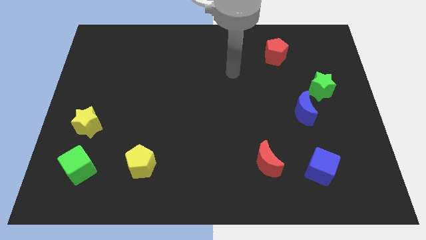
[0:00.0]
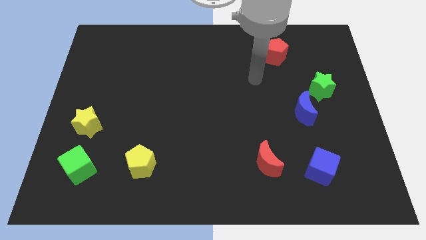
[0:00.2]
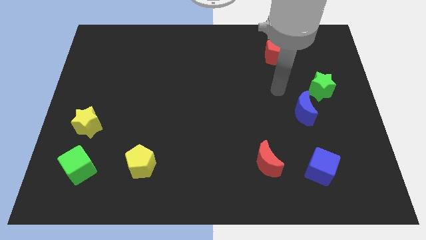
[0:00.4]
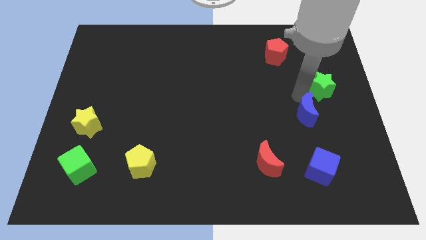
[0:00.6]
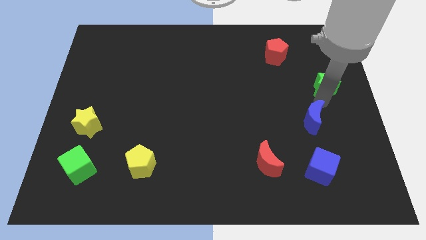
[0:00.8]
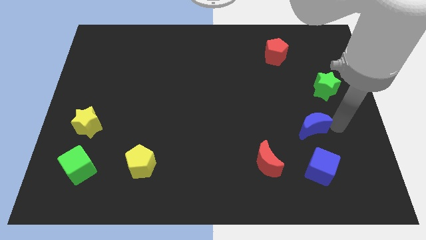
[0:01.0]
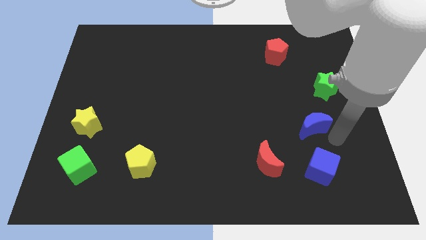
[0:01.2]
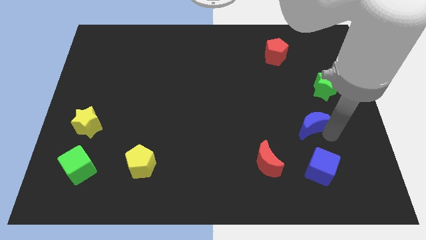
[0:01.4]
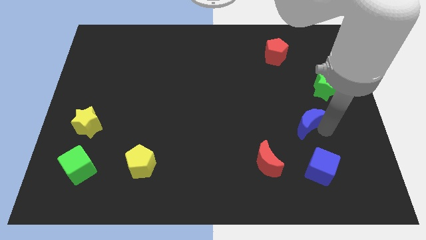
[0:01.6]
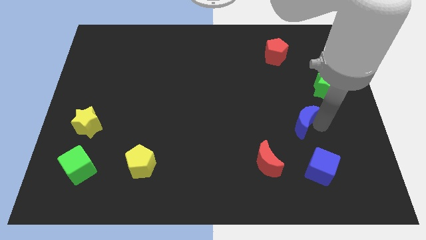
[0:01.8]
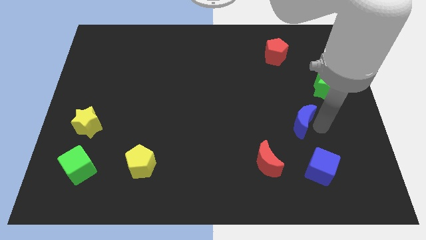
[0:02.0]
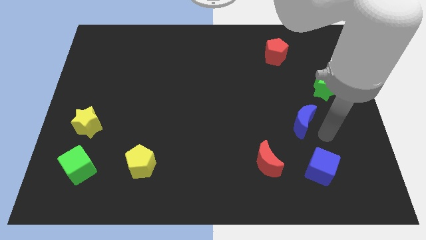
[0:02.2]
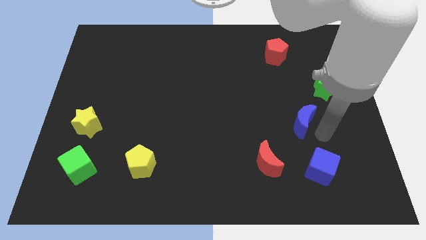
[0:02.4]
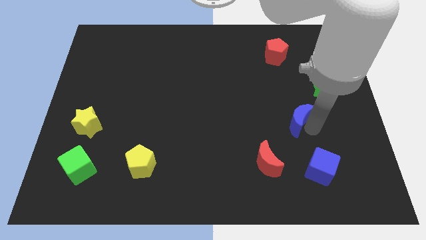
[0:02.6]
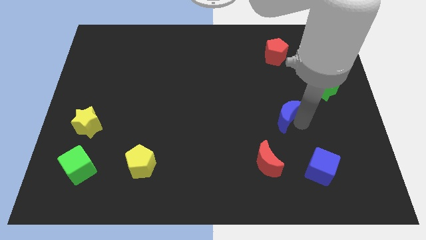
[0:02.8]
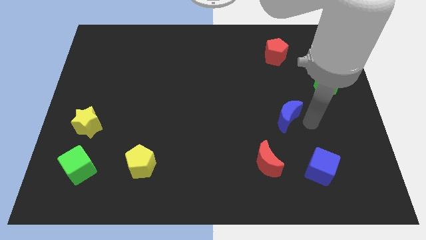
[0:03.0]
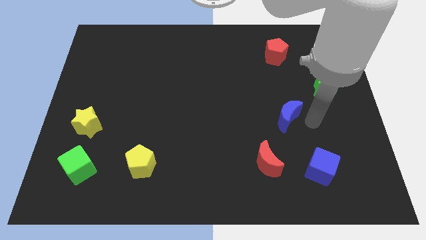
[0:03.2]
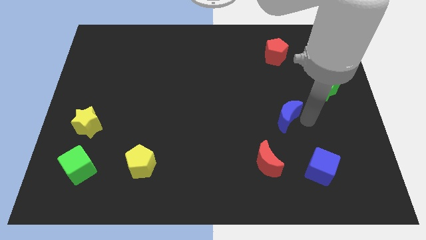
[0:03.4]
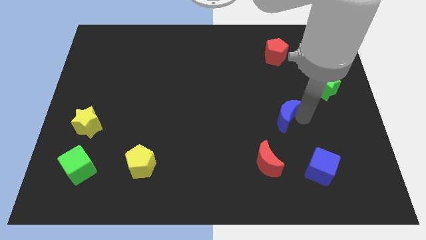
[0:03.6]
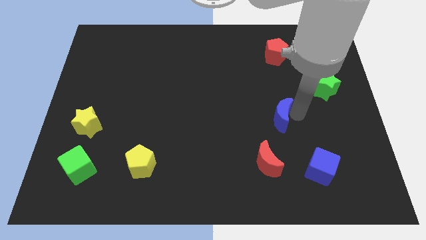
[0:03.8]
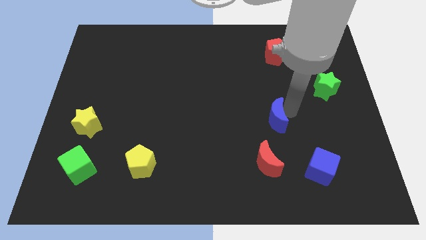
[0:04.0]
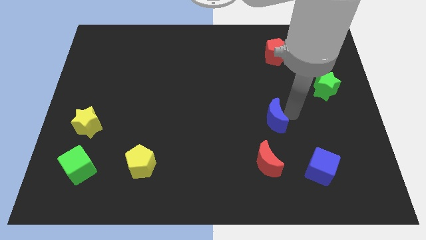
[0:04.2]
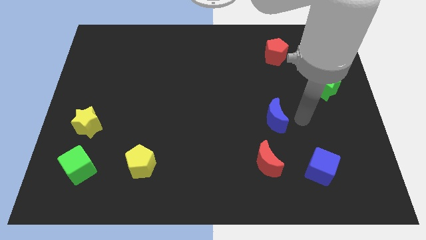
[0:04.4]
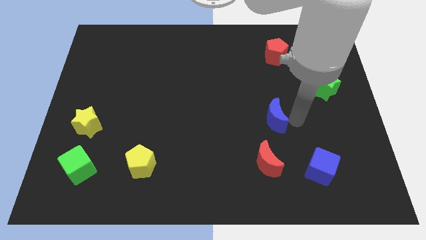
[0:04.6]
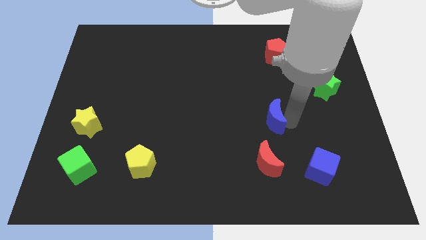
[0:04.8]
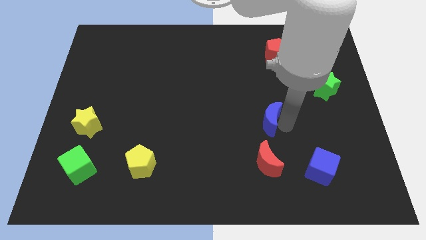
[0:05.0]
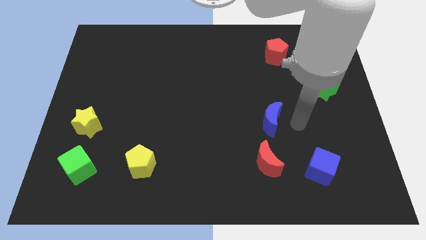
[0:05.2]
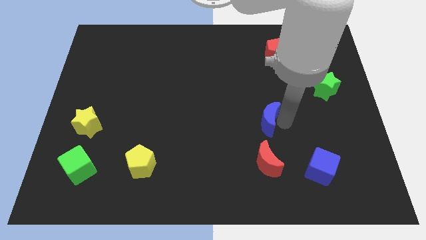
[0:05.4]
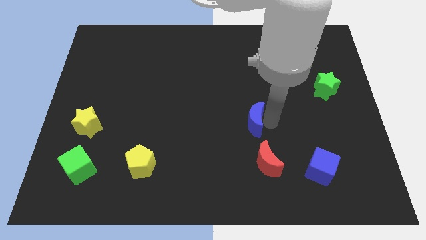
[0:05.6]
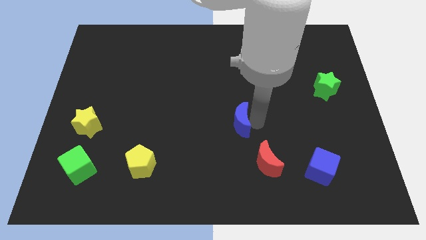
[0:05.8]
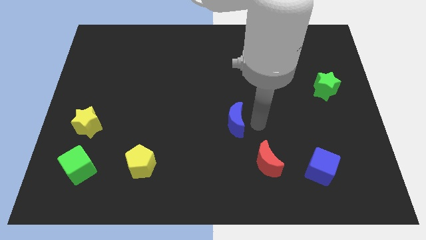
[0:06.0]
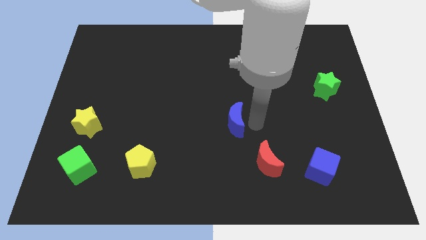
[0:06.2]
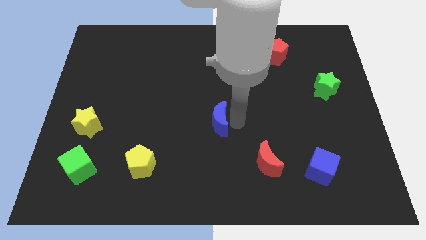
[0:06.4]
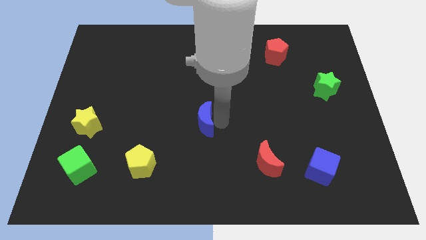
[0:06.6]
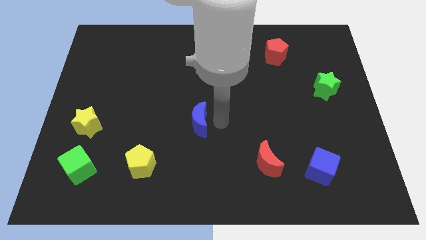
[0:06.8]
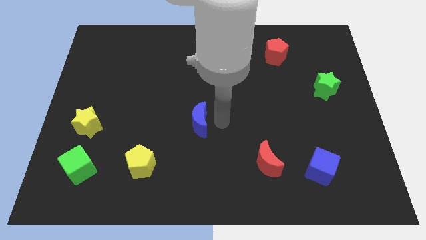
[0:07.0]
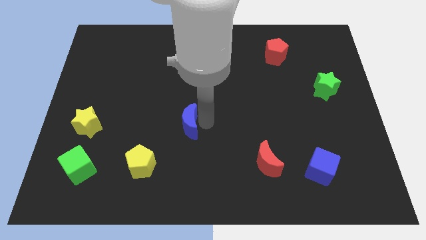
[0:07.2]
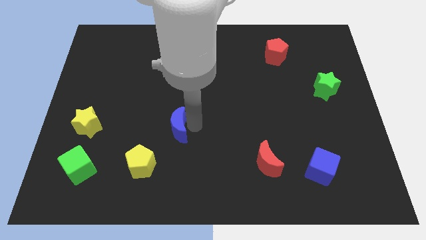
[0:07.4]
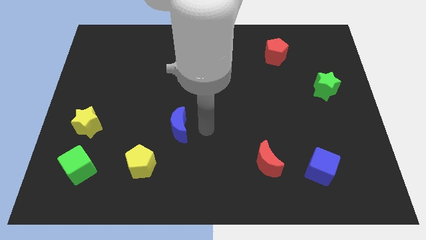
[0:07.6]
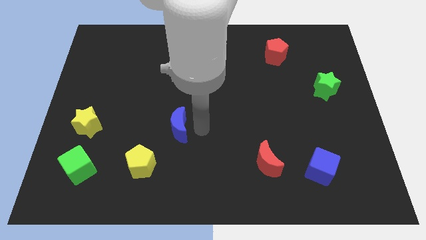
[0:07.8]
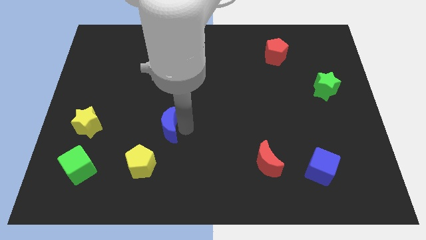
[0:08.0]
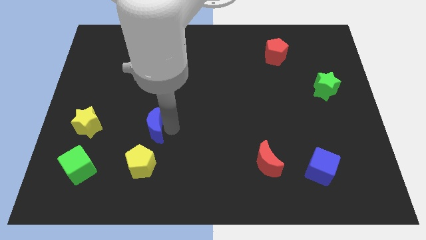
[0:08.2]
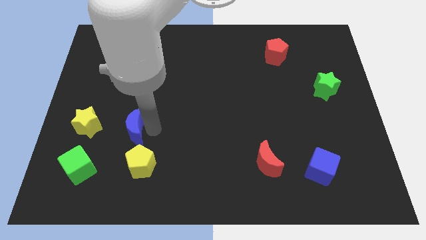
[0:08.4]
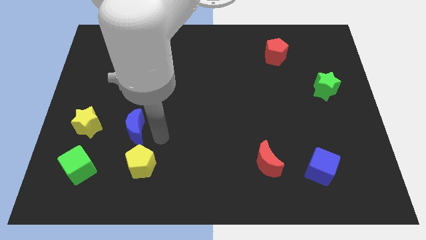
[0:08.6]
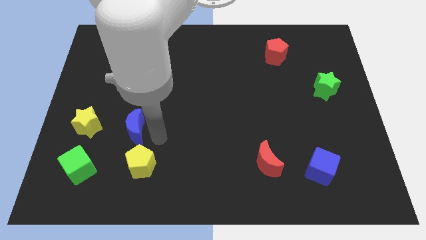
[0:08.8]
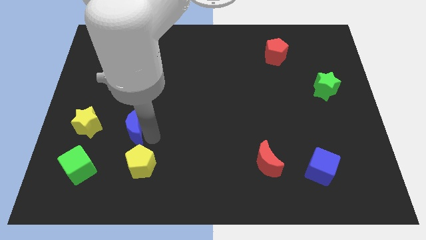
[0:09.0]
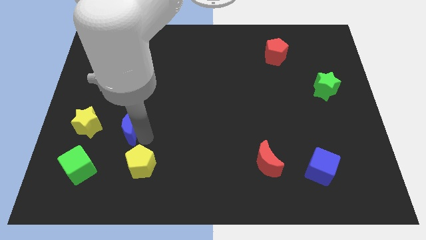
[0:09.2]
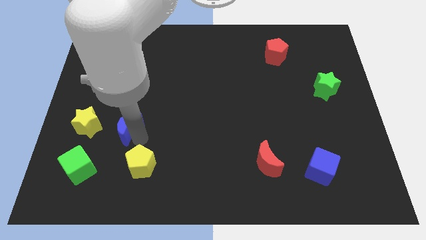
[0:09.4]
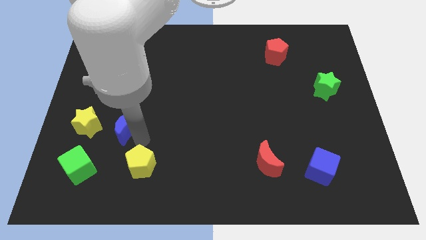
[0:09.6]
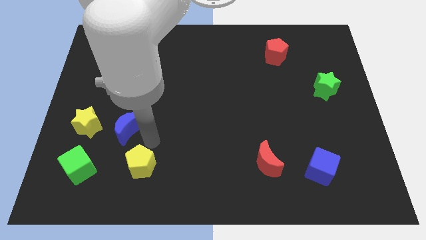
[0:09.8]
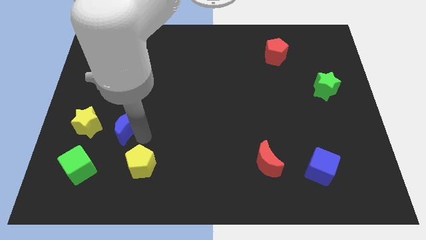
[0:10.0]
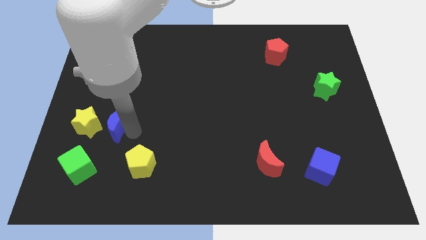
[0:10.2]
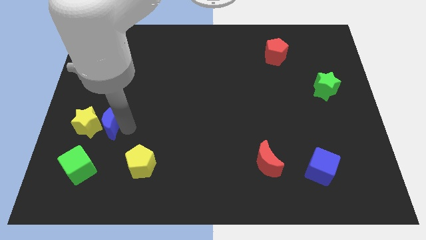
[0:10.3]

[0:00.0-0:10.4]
put the blue moon towards the yellow star

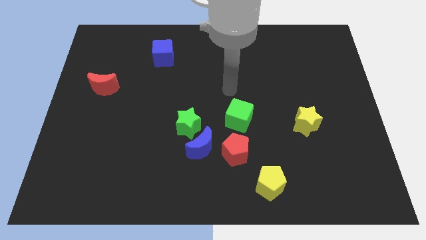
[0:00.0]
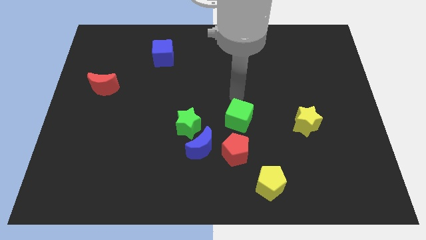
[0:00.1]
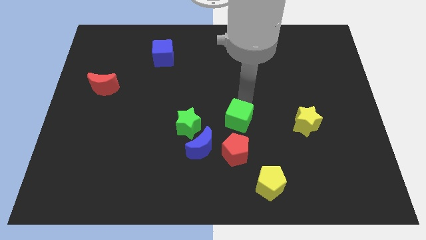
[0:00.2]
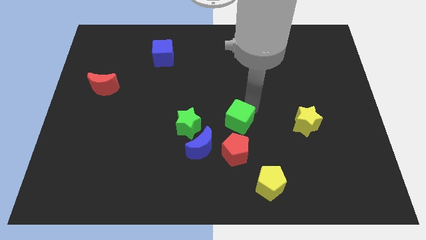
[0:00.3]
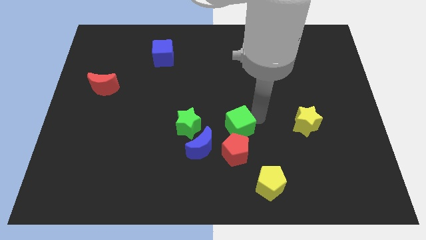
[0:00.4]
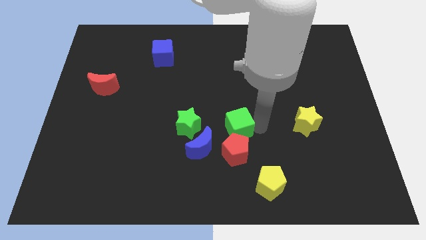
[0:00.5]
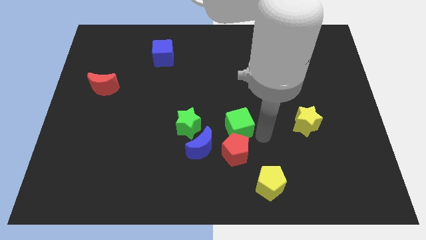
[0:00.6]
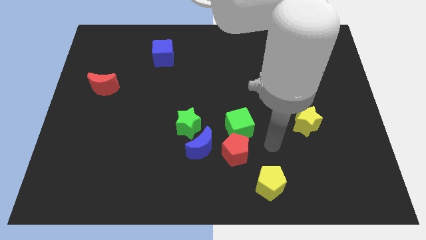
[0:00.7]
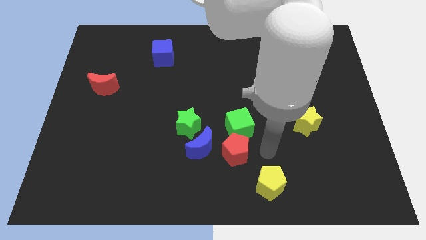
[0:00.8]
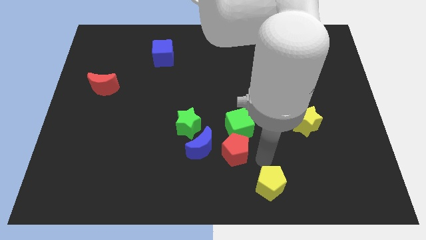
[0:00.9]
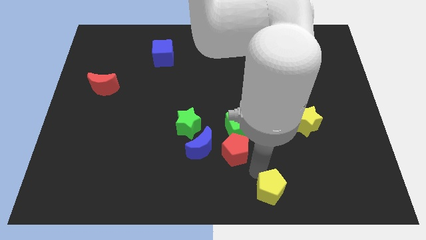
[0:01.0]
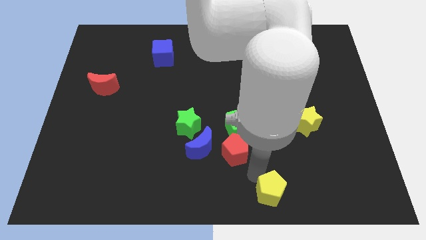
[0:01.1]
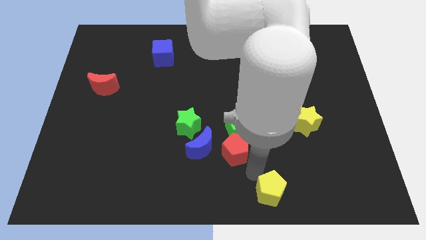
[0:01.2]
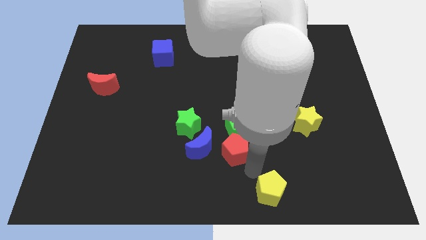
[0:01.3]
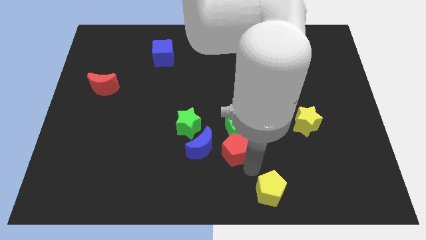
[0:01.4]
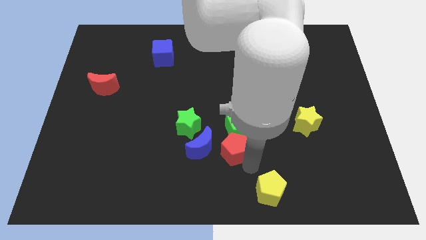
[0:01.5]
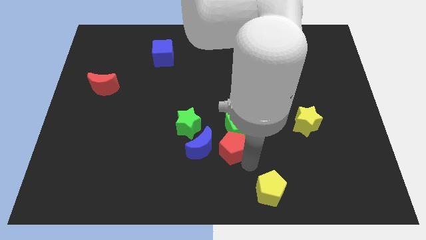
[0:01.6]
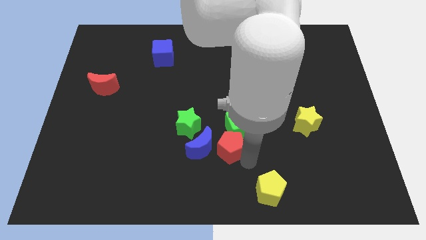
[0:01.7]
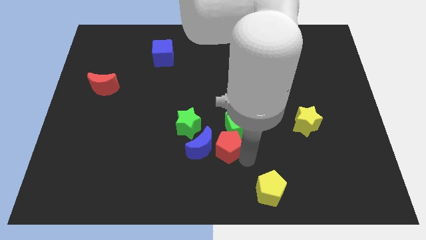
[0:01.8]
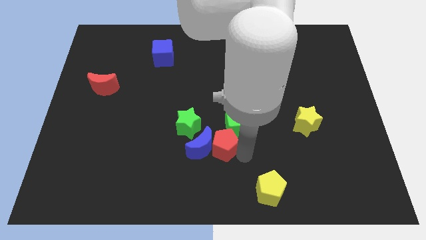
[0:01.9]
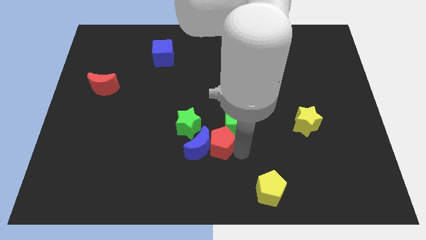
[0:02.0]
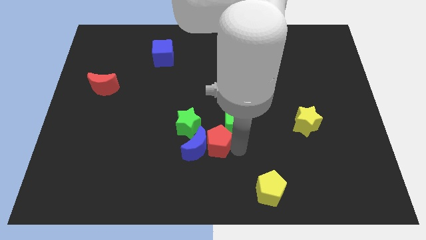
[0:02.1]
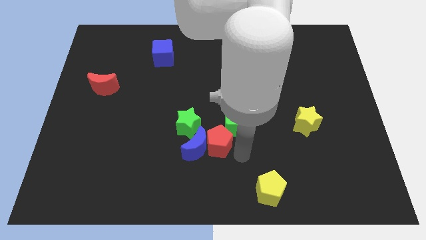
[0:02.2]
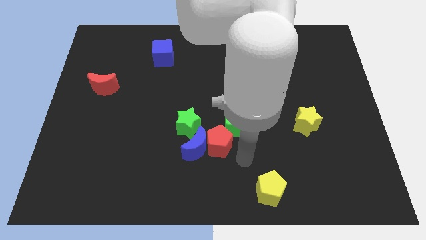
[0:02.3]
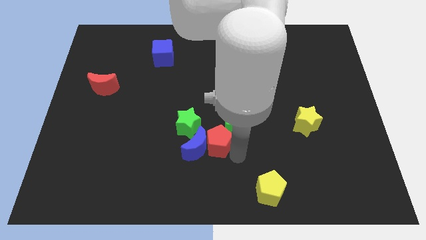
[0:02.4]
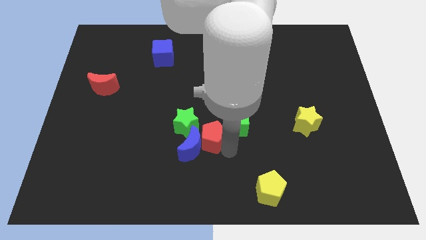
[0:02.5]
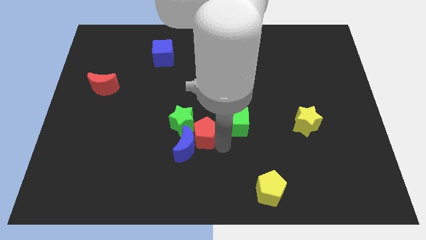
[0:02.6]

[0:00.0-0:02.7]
push the red pentagon next to the green star
